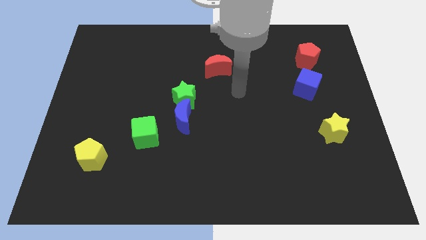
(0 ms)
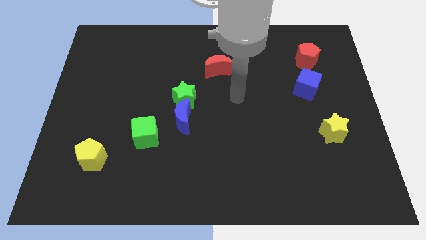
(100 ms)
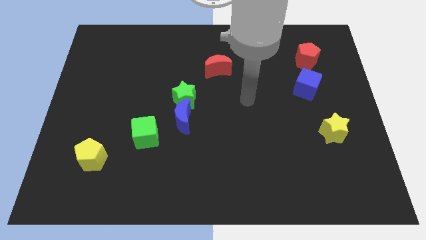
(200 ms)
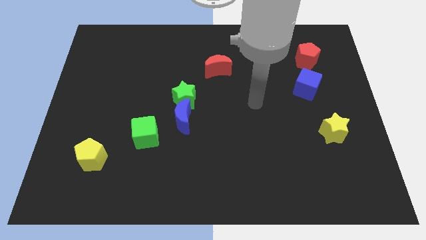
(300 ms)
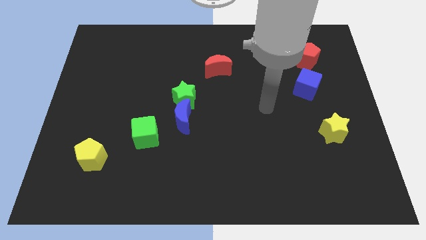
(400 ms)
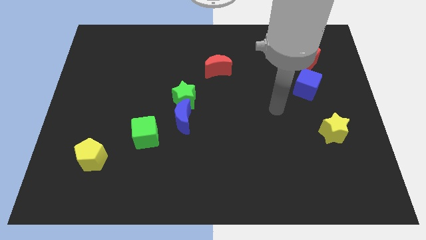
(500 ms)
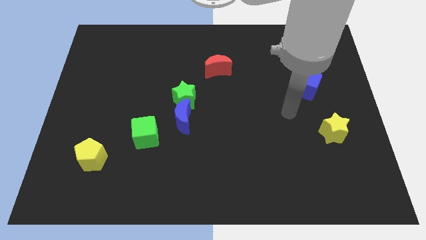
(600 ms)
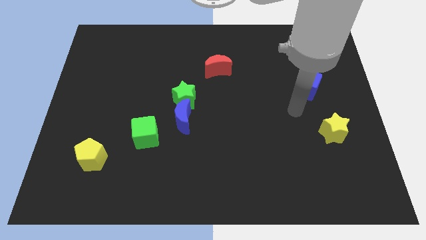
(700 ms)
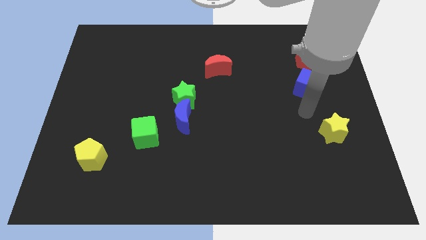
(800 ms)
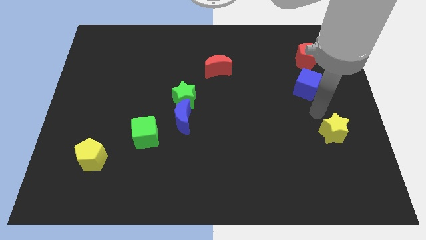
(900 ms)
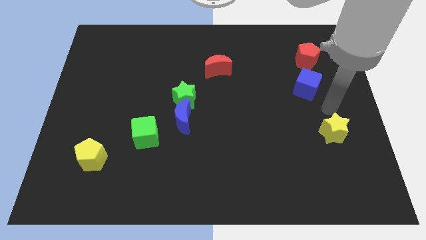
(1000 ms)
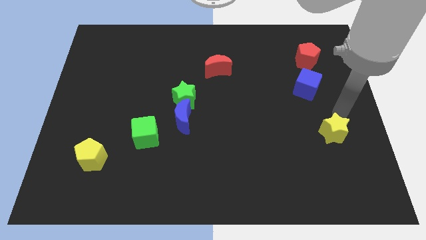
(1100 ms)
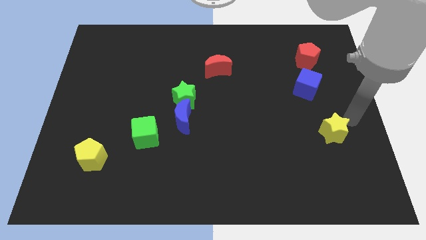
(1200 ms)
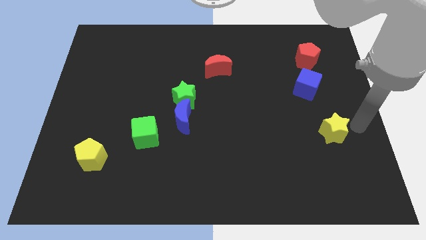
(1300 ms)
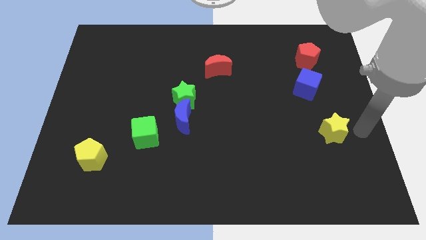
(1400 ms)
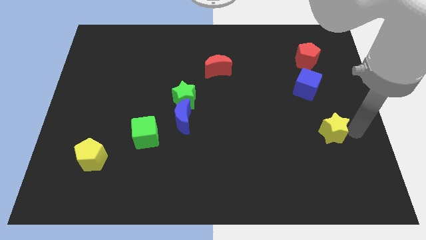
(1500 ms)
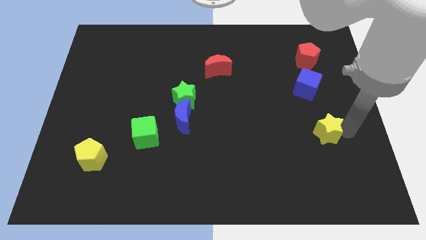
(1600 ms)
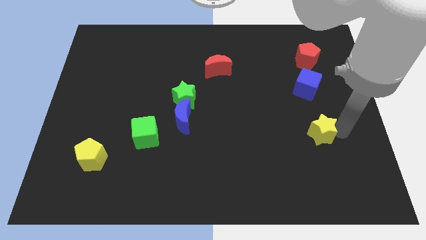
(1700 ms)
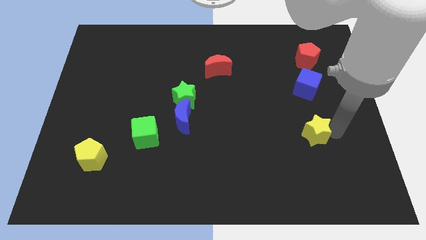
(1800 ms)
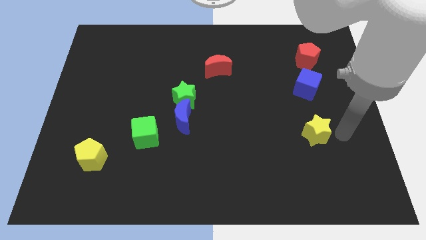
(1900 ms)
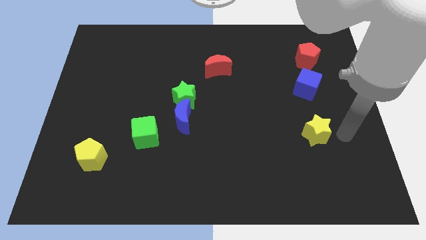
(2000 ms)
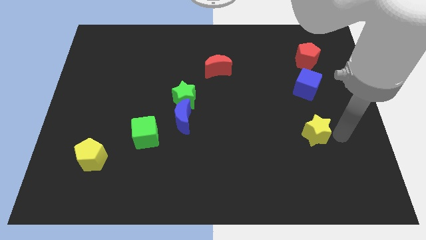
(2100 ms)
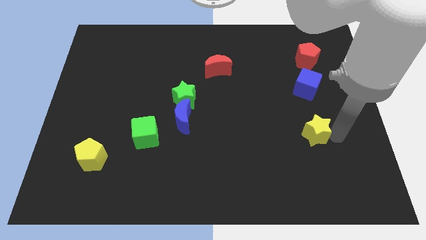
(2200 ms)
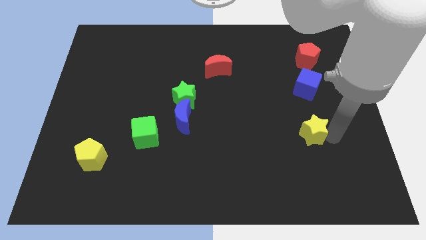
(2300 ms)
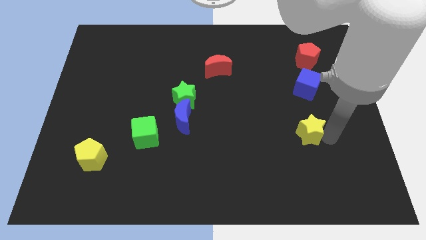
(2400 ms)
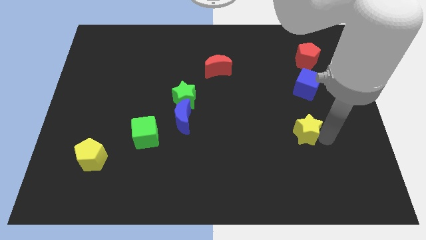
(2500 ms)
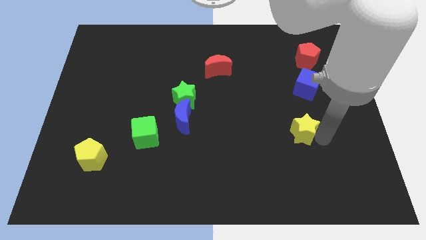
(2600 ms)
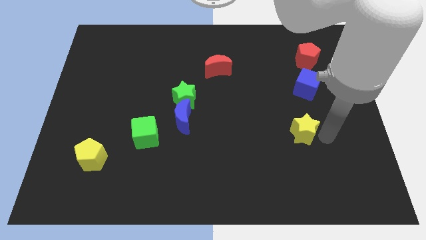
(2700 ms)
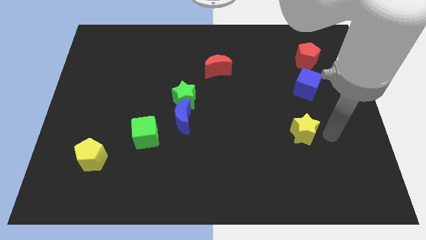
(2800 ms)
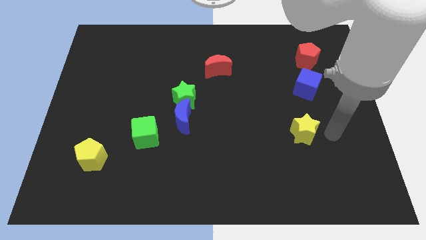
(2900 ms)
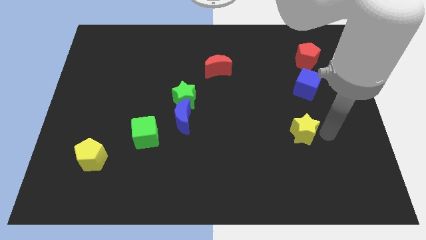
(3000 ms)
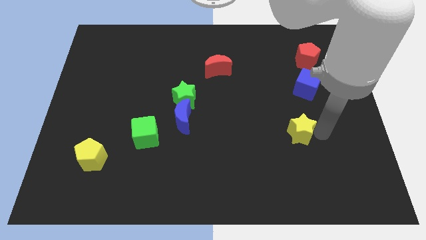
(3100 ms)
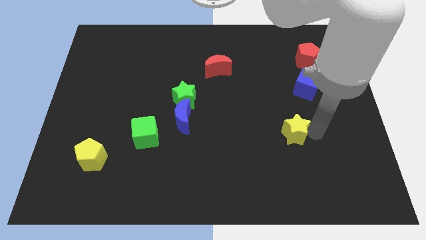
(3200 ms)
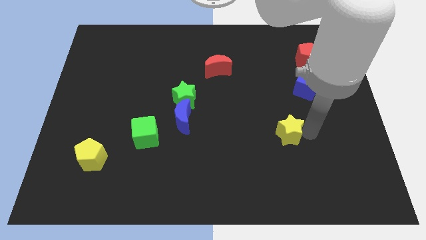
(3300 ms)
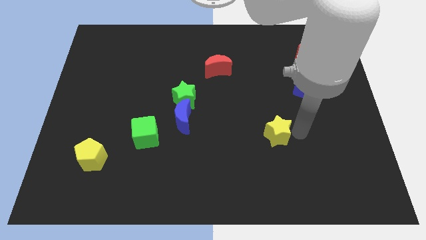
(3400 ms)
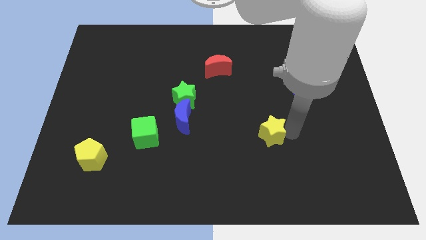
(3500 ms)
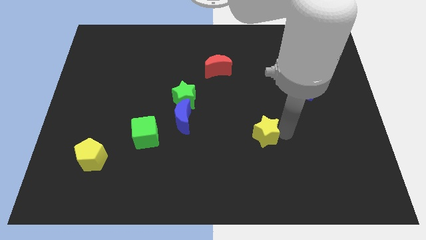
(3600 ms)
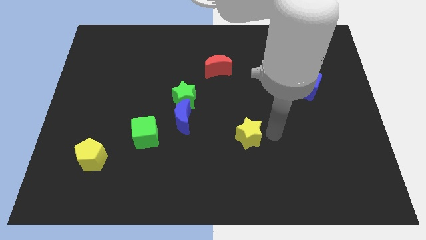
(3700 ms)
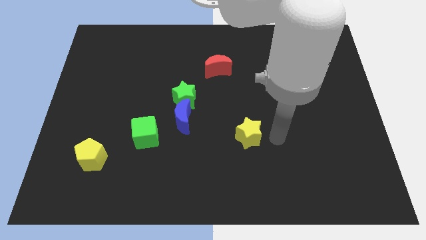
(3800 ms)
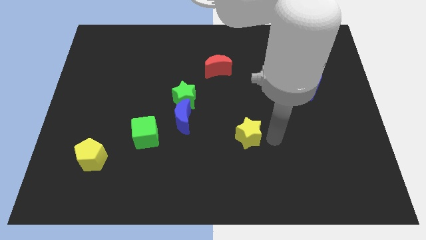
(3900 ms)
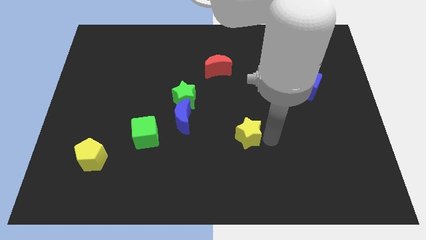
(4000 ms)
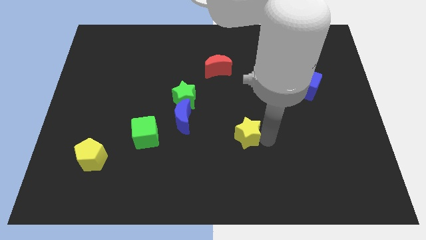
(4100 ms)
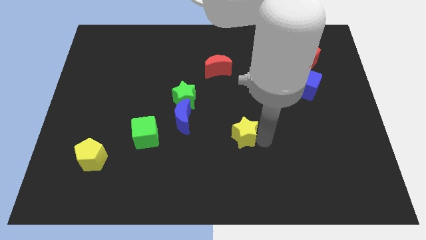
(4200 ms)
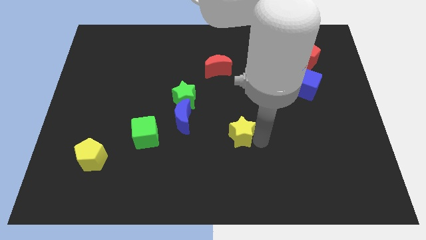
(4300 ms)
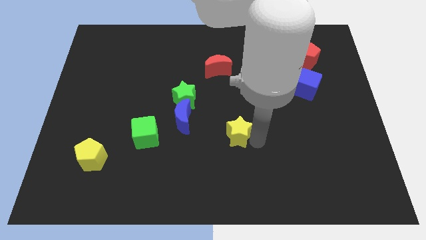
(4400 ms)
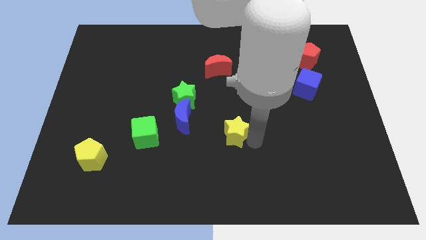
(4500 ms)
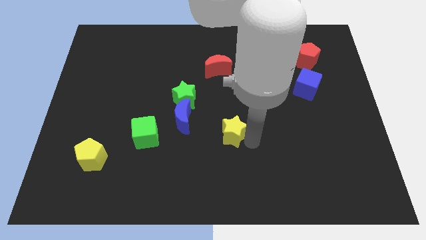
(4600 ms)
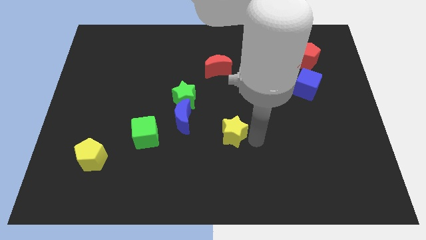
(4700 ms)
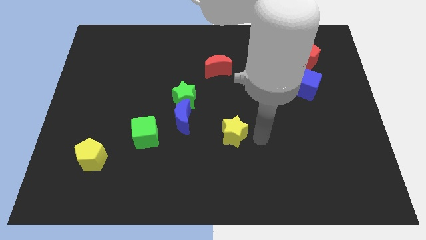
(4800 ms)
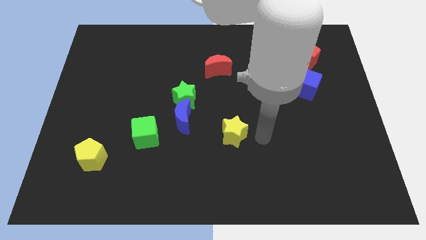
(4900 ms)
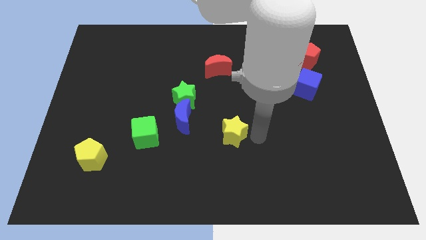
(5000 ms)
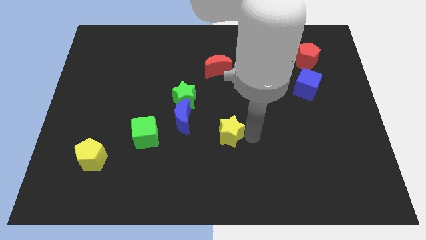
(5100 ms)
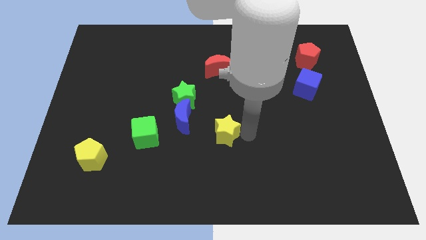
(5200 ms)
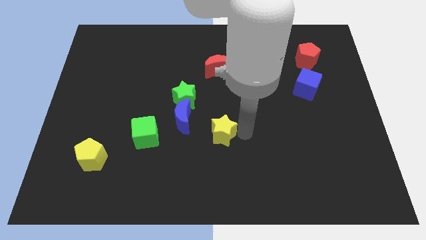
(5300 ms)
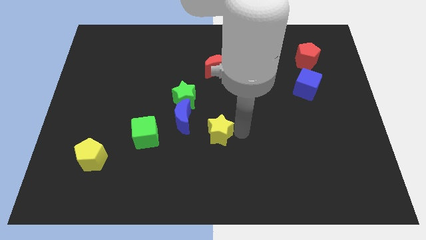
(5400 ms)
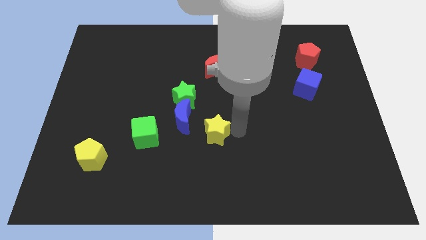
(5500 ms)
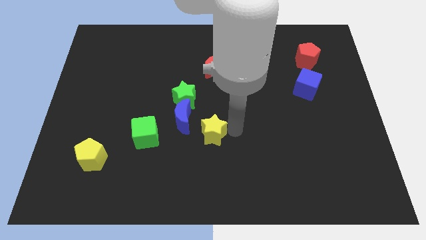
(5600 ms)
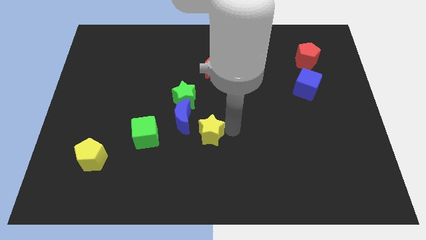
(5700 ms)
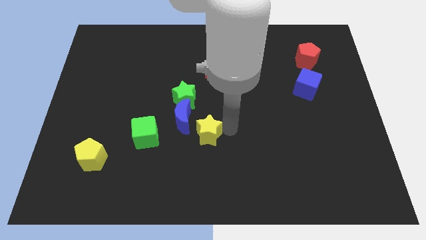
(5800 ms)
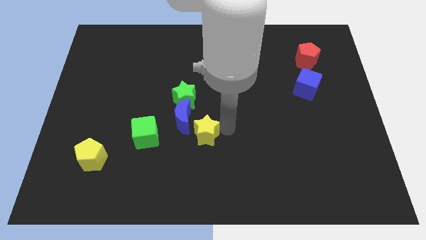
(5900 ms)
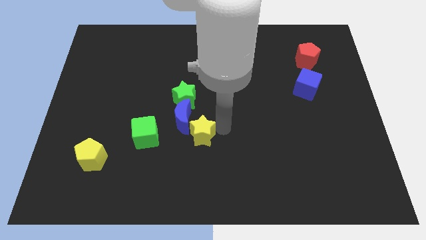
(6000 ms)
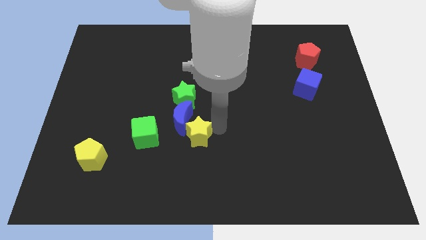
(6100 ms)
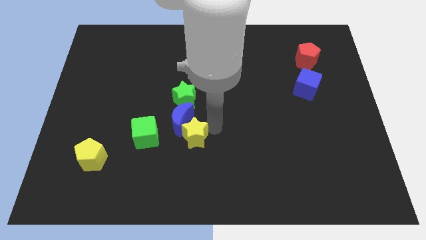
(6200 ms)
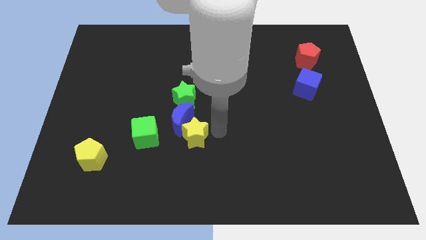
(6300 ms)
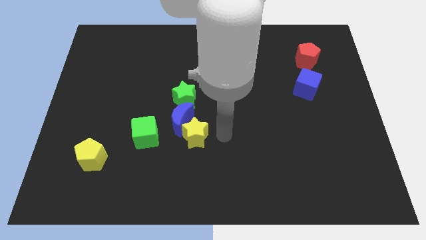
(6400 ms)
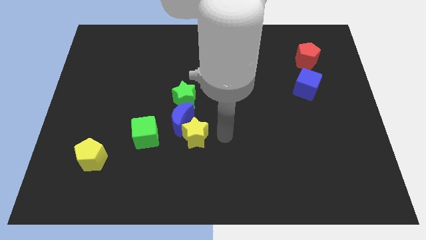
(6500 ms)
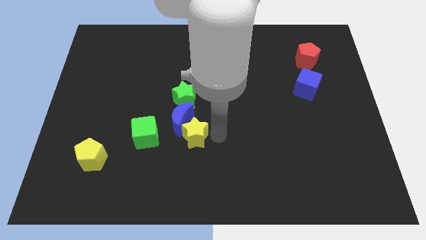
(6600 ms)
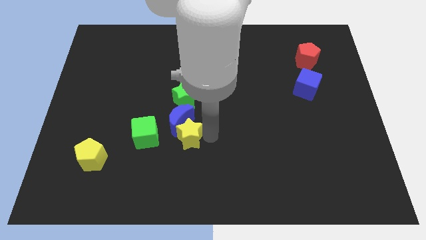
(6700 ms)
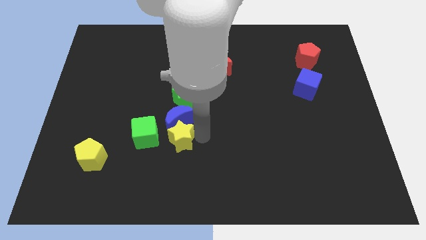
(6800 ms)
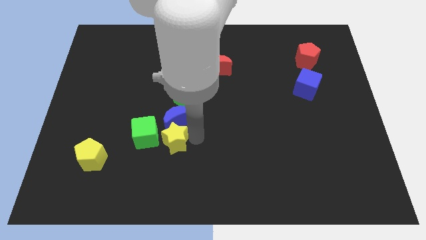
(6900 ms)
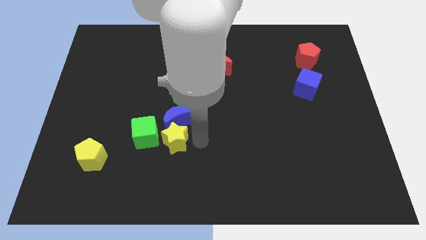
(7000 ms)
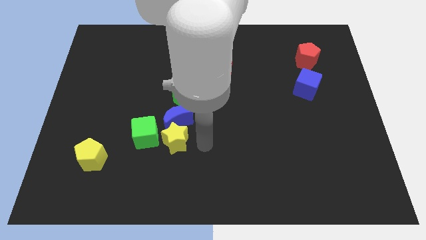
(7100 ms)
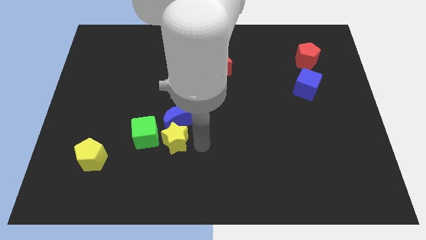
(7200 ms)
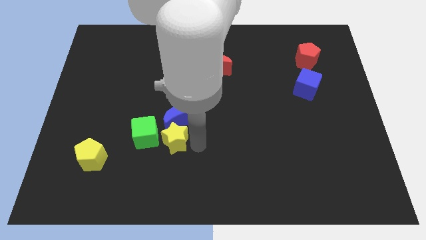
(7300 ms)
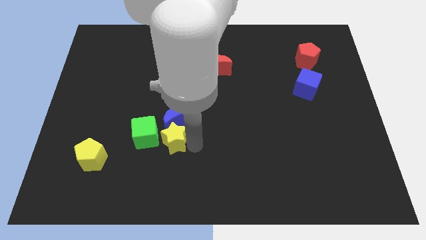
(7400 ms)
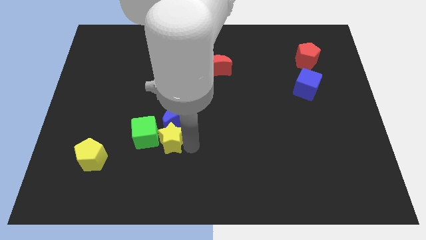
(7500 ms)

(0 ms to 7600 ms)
slide the yellow star to the green cube
